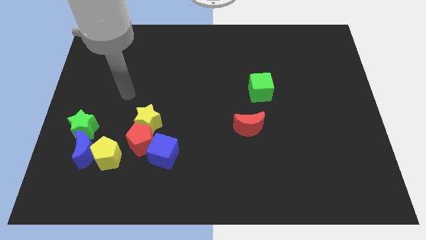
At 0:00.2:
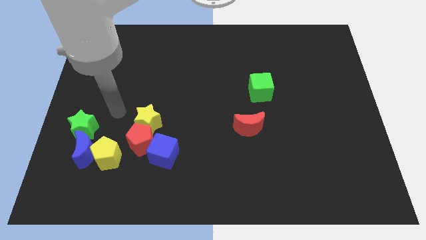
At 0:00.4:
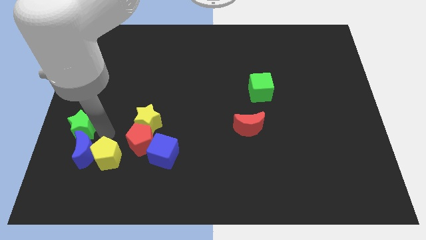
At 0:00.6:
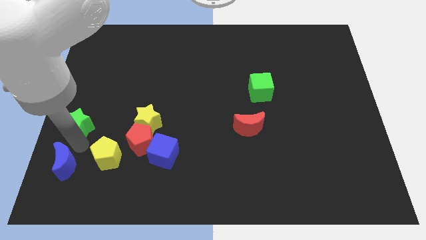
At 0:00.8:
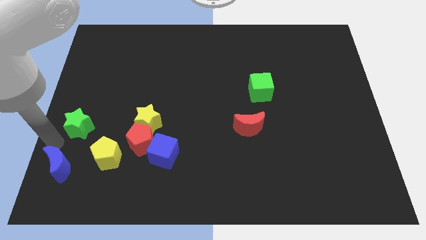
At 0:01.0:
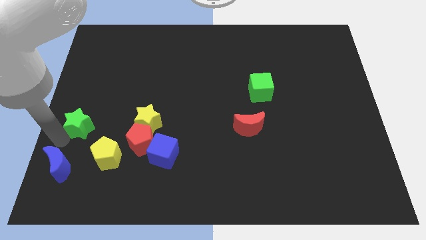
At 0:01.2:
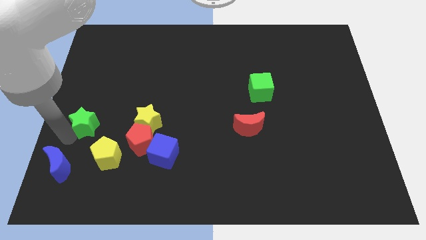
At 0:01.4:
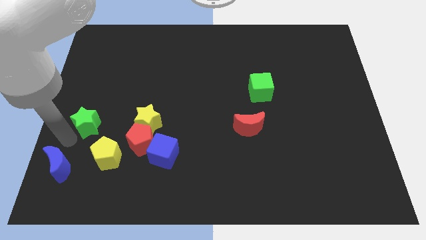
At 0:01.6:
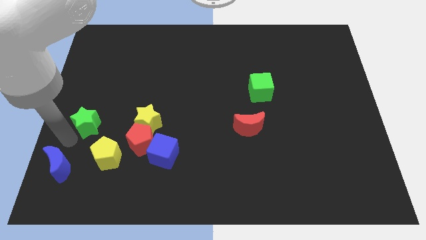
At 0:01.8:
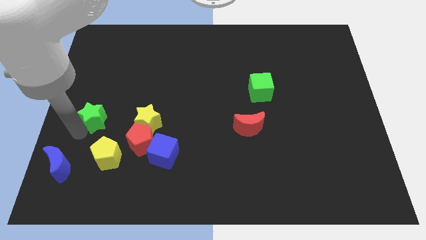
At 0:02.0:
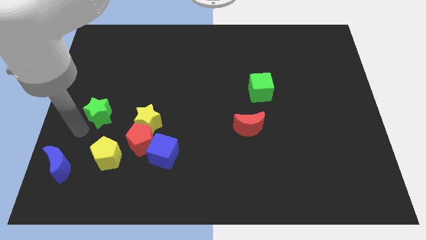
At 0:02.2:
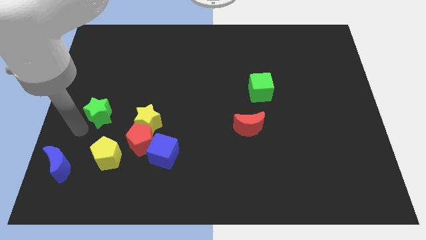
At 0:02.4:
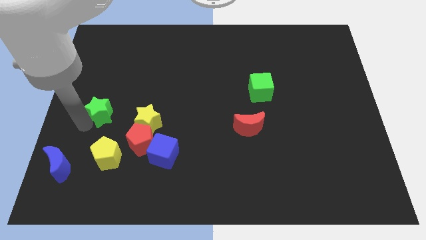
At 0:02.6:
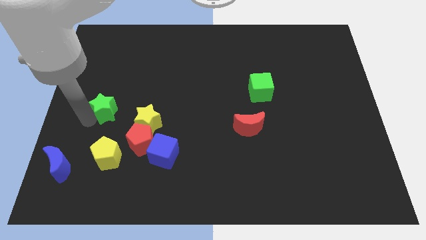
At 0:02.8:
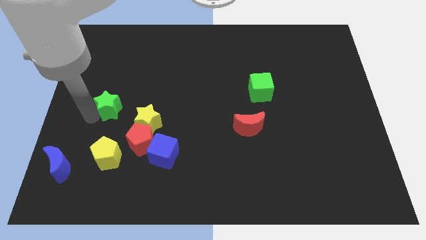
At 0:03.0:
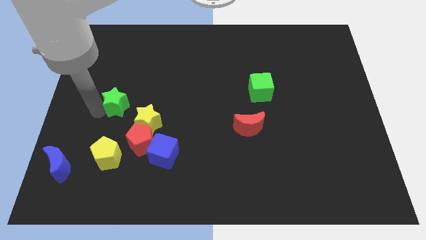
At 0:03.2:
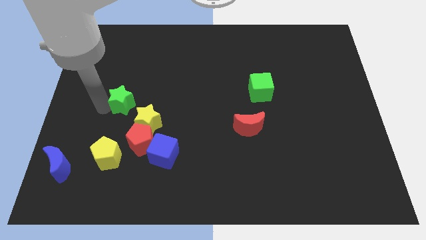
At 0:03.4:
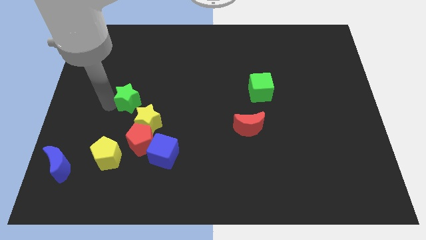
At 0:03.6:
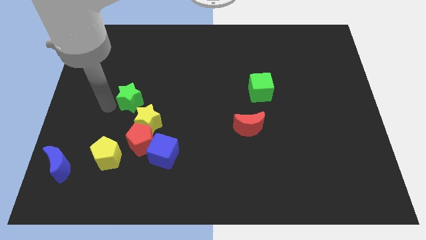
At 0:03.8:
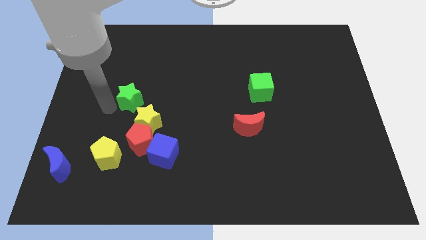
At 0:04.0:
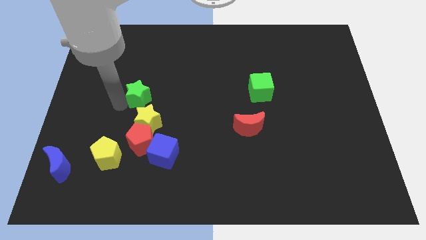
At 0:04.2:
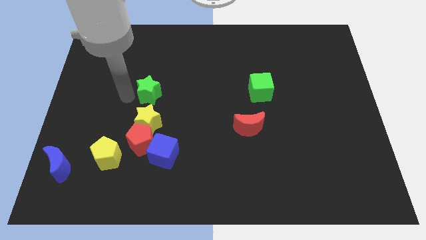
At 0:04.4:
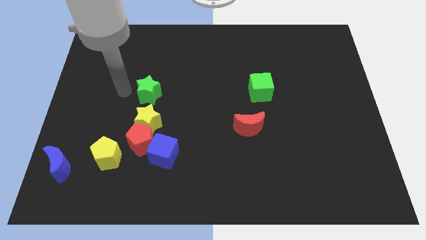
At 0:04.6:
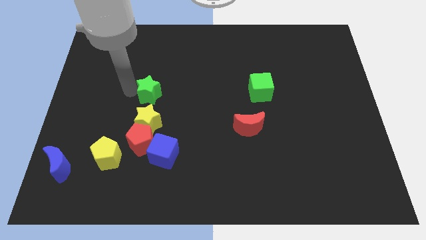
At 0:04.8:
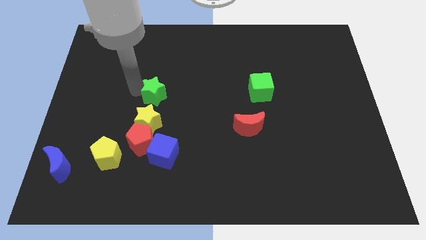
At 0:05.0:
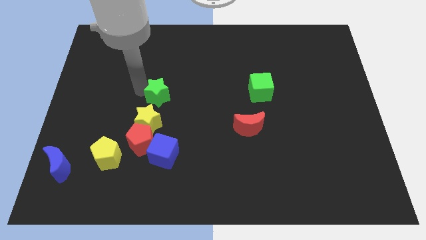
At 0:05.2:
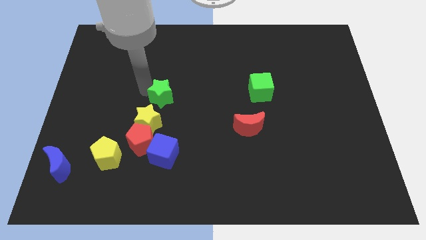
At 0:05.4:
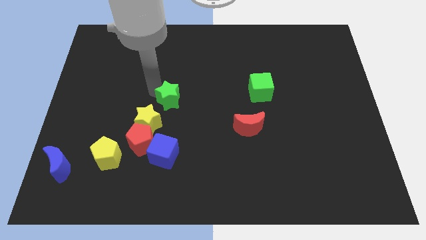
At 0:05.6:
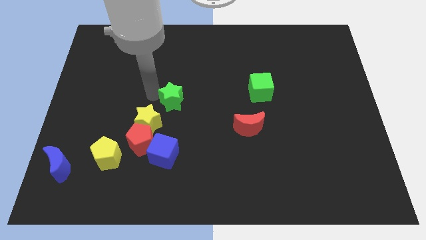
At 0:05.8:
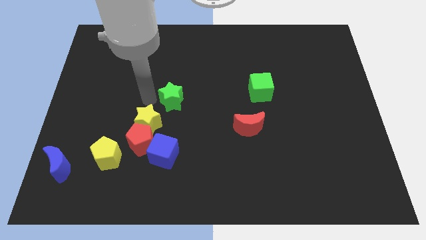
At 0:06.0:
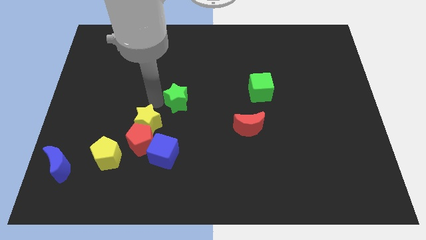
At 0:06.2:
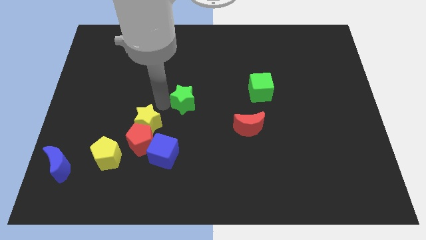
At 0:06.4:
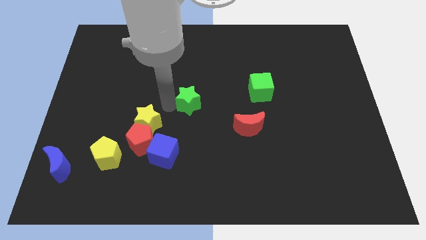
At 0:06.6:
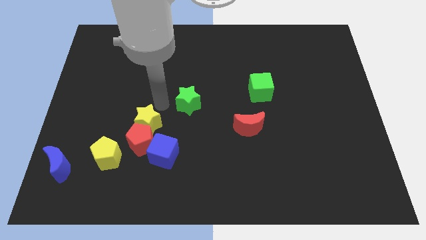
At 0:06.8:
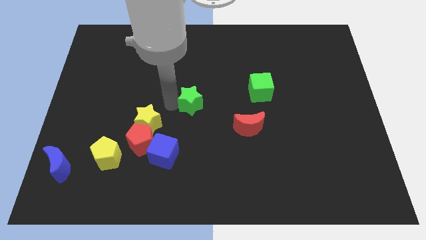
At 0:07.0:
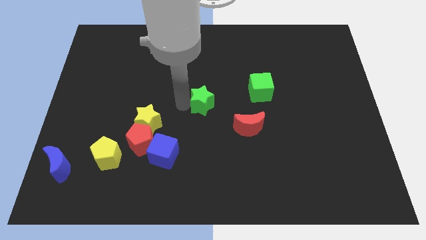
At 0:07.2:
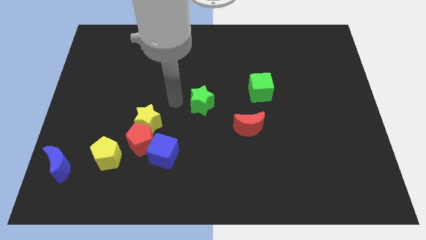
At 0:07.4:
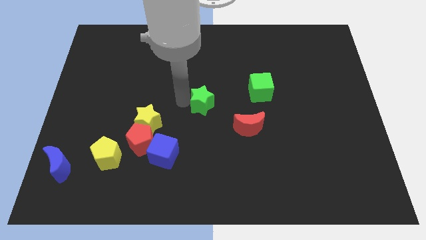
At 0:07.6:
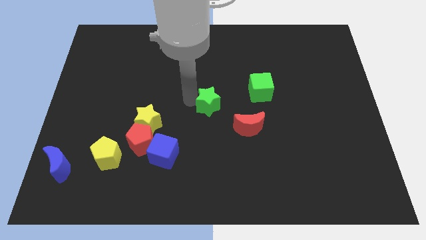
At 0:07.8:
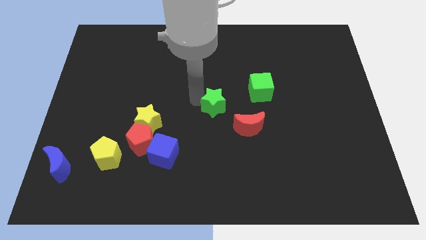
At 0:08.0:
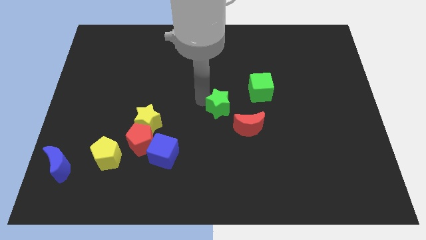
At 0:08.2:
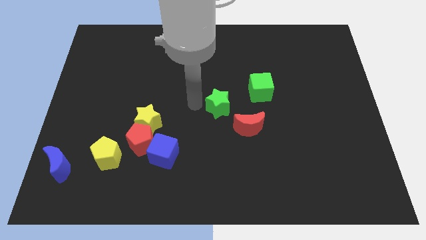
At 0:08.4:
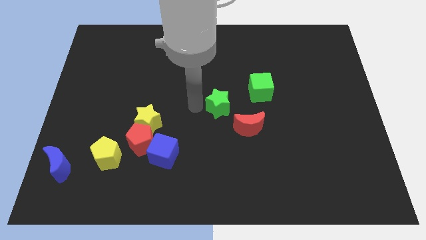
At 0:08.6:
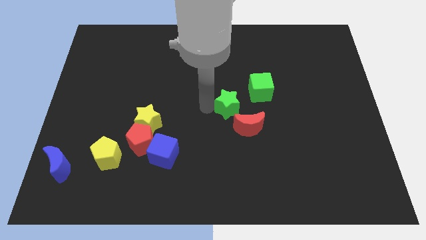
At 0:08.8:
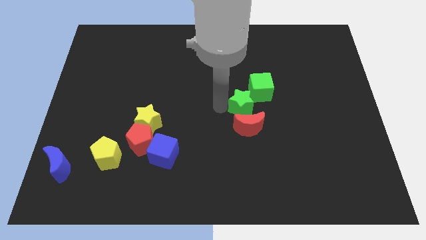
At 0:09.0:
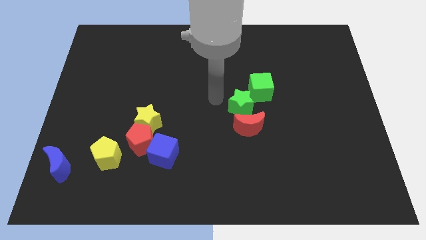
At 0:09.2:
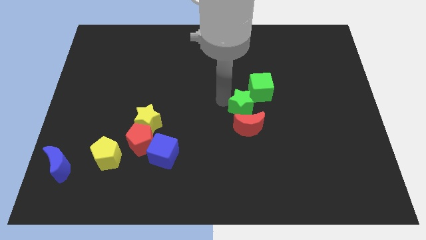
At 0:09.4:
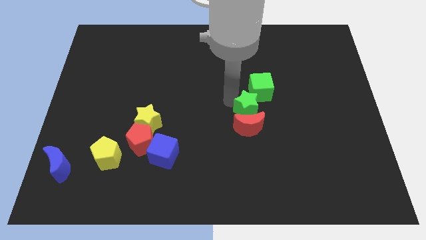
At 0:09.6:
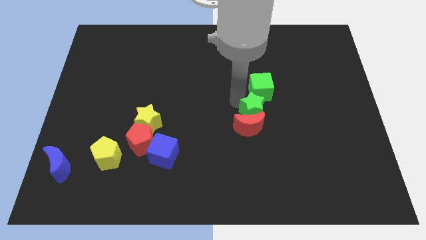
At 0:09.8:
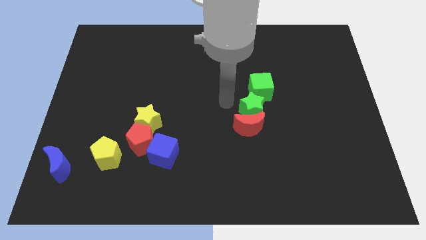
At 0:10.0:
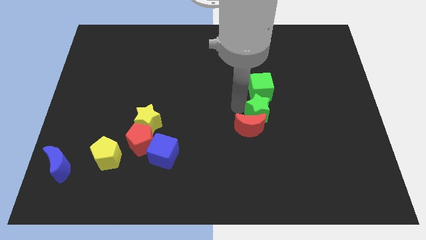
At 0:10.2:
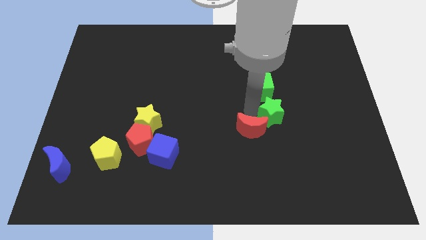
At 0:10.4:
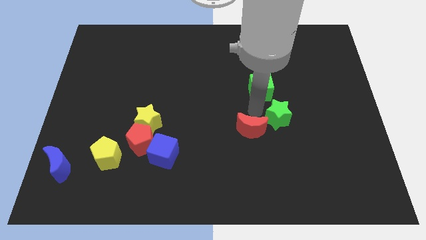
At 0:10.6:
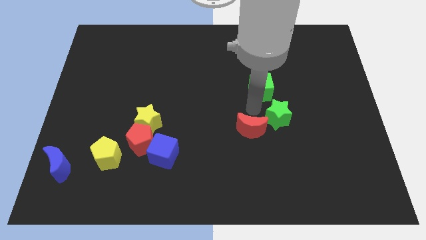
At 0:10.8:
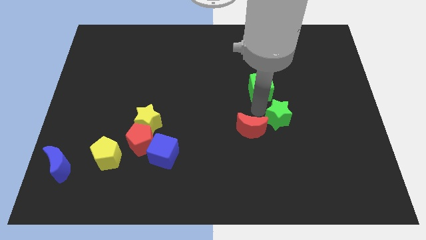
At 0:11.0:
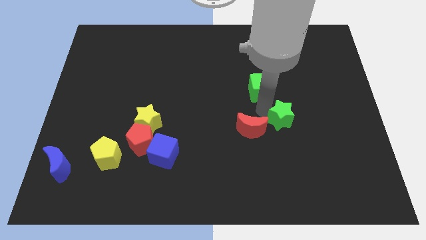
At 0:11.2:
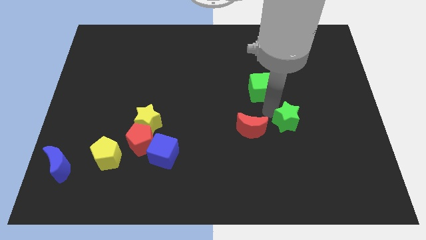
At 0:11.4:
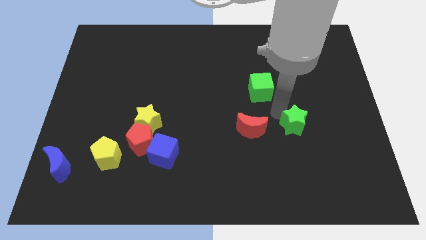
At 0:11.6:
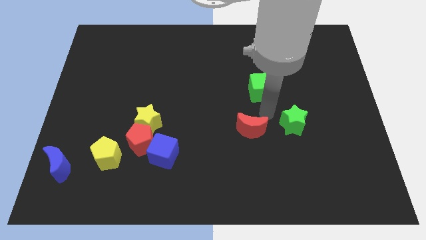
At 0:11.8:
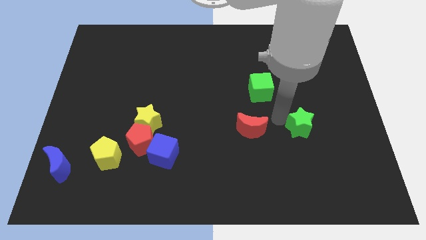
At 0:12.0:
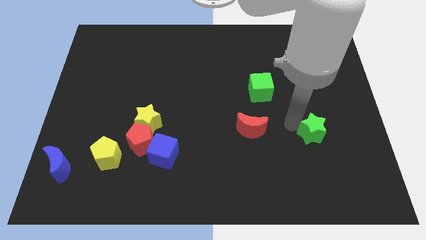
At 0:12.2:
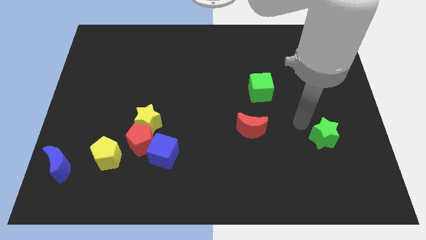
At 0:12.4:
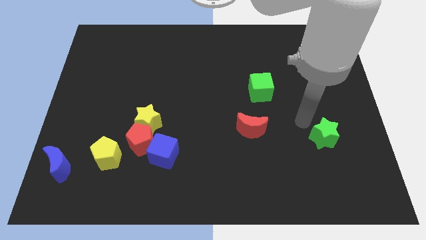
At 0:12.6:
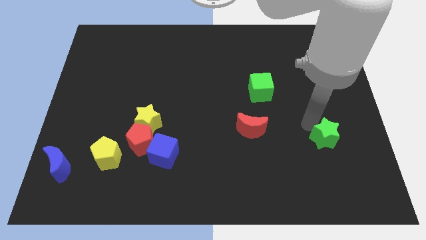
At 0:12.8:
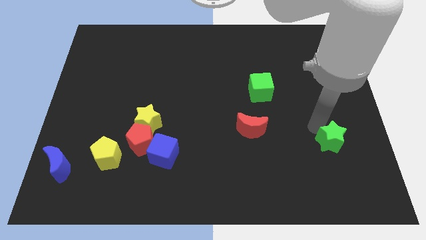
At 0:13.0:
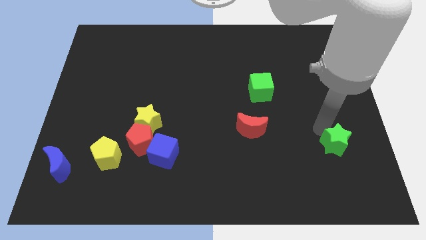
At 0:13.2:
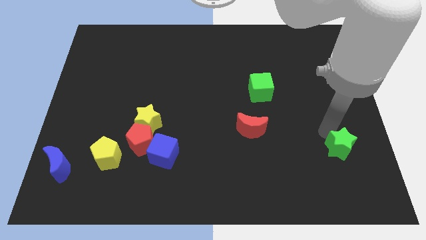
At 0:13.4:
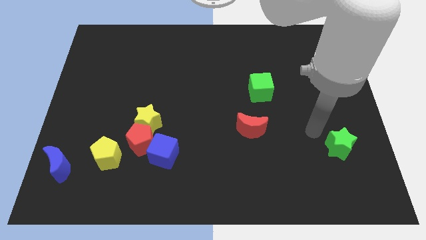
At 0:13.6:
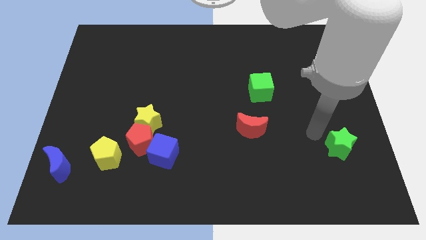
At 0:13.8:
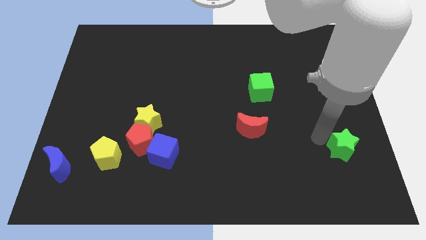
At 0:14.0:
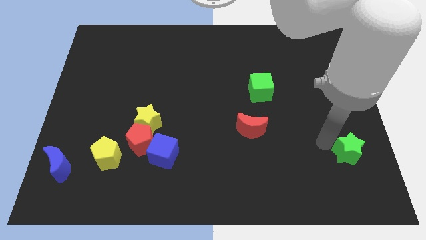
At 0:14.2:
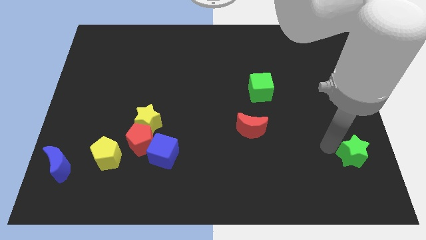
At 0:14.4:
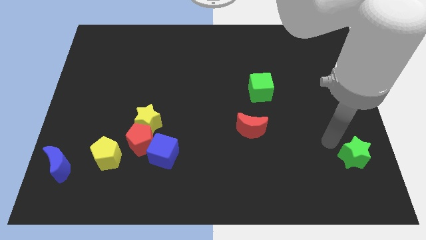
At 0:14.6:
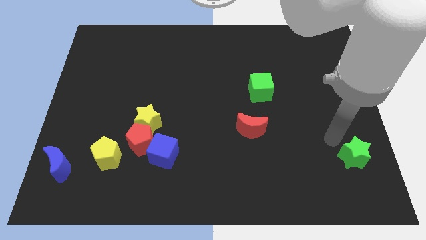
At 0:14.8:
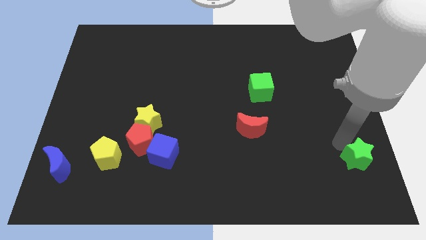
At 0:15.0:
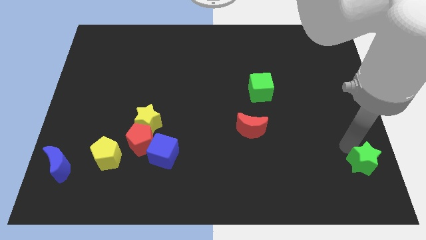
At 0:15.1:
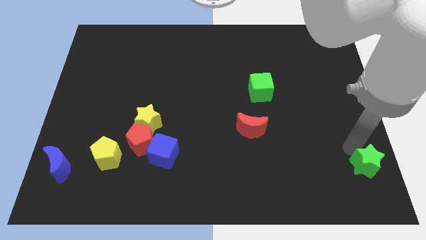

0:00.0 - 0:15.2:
push the green star to the bottom right of the board
